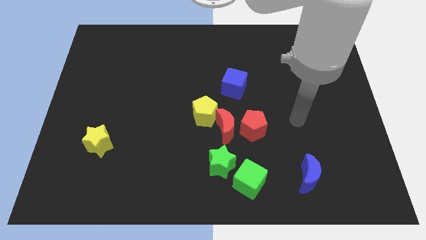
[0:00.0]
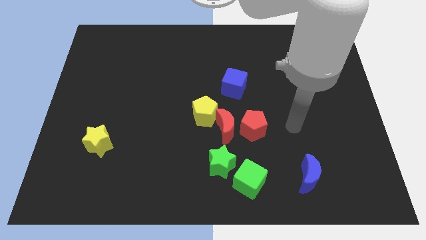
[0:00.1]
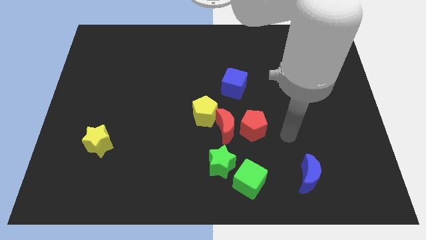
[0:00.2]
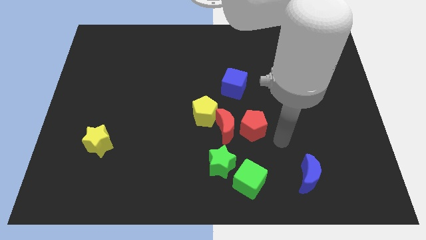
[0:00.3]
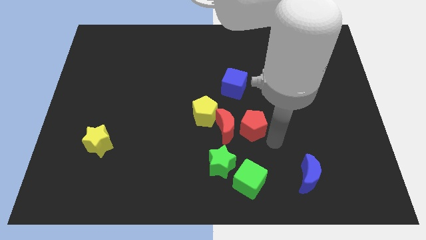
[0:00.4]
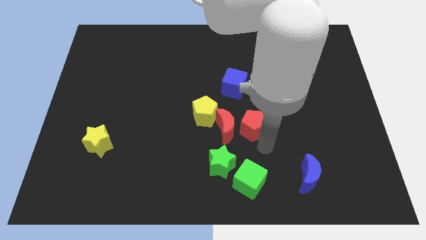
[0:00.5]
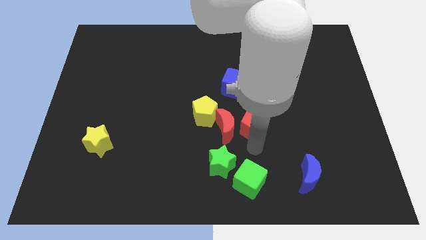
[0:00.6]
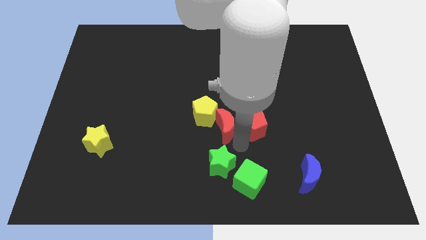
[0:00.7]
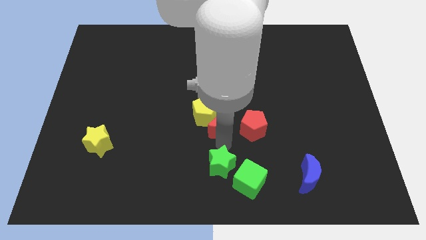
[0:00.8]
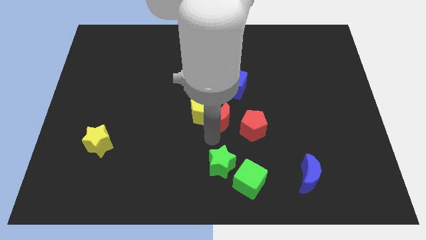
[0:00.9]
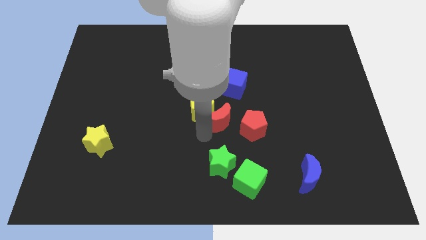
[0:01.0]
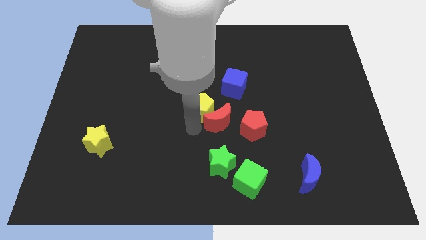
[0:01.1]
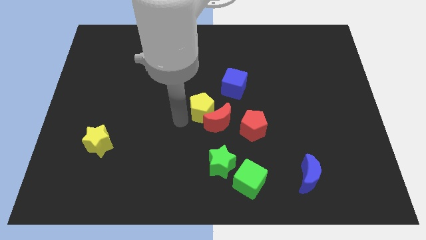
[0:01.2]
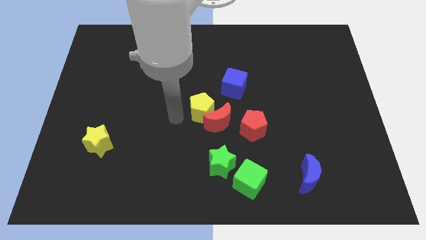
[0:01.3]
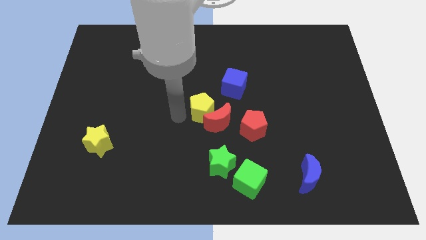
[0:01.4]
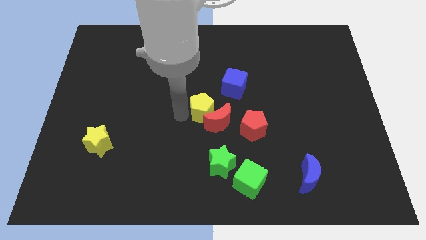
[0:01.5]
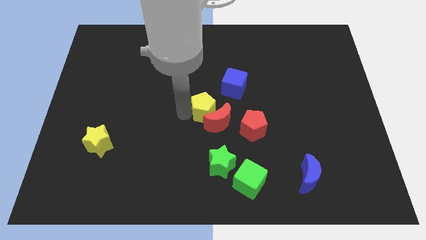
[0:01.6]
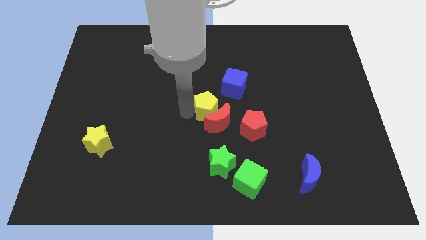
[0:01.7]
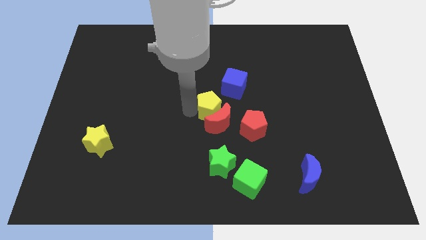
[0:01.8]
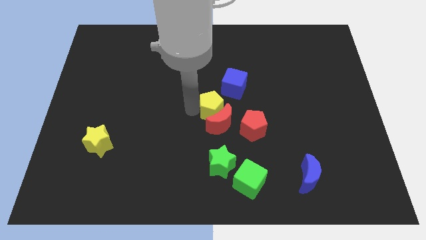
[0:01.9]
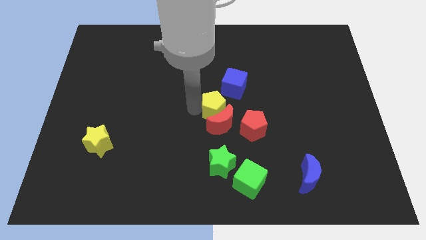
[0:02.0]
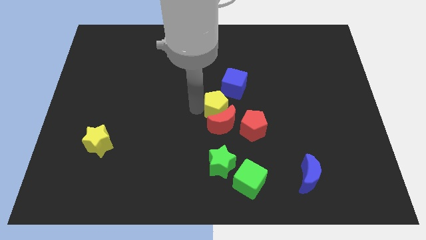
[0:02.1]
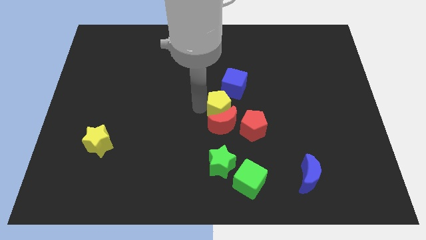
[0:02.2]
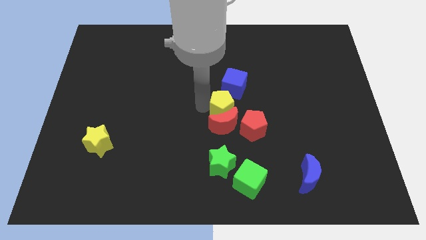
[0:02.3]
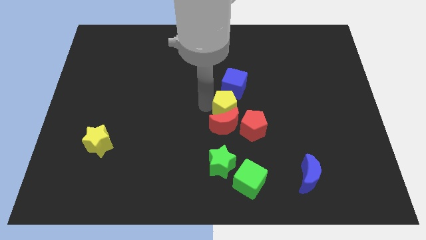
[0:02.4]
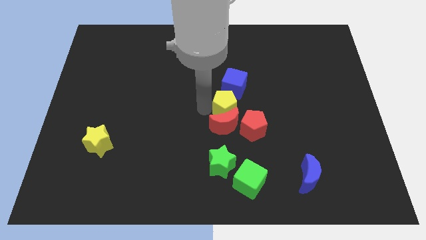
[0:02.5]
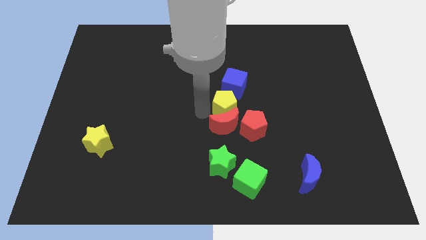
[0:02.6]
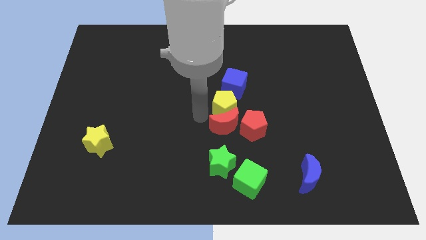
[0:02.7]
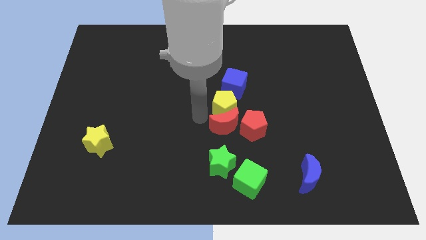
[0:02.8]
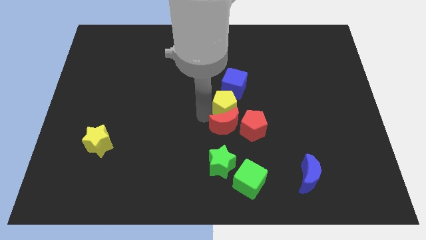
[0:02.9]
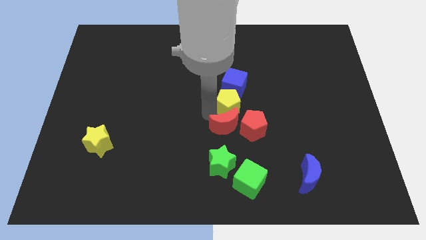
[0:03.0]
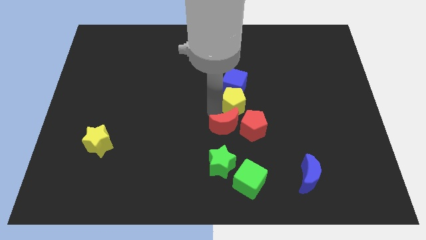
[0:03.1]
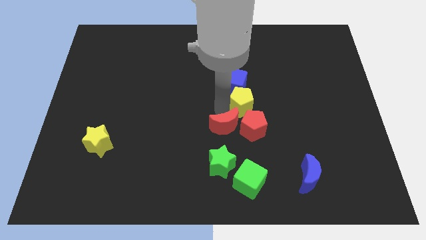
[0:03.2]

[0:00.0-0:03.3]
slide the yellow pentagon a little bit up and then to the right

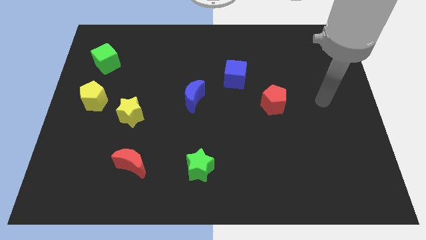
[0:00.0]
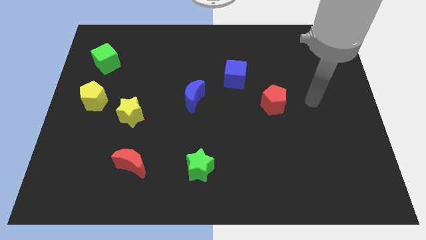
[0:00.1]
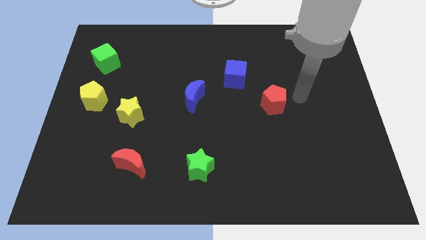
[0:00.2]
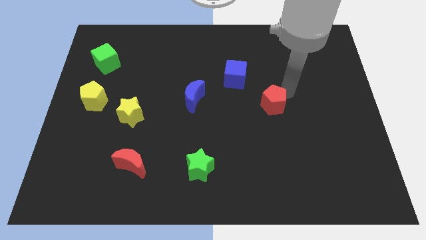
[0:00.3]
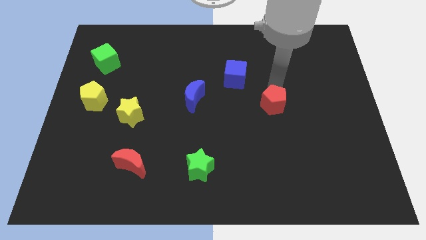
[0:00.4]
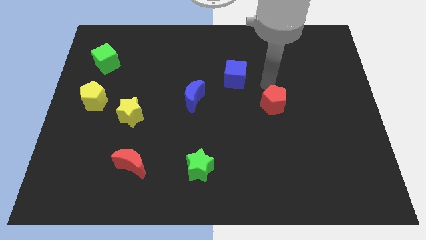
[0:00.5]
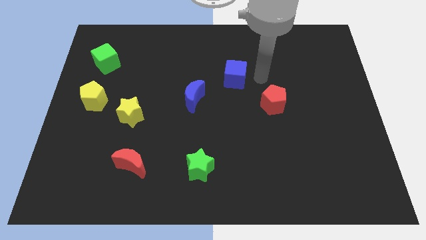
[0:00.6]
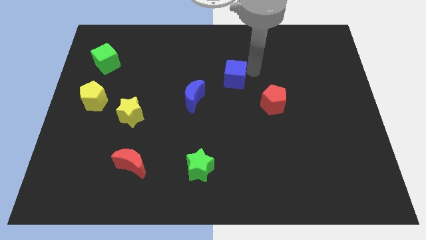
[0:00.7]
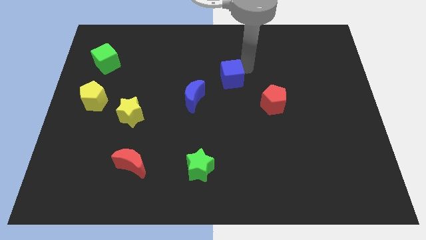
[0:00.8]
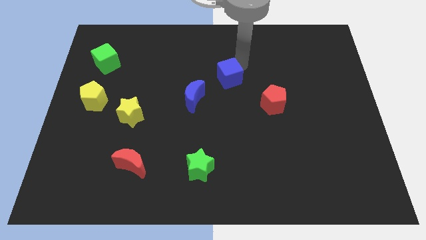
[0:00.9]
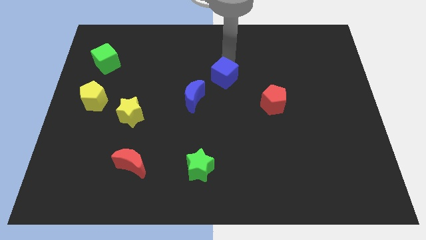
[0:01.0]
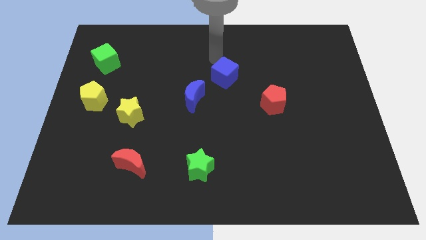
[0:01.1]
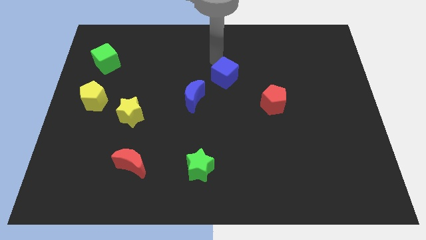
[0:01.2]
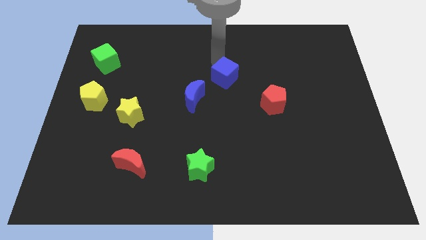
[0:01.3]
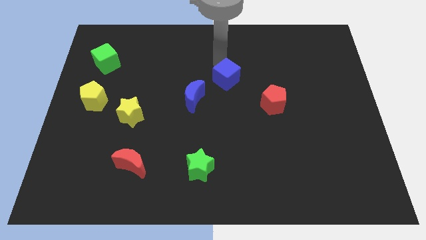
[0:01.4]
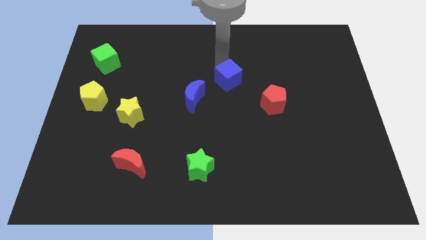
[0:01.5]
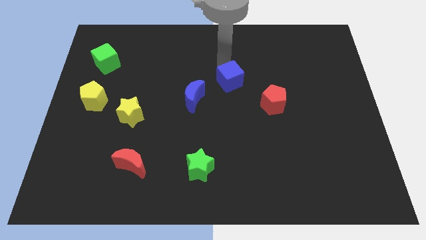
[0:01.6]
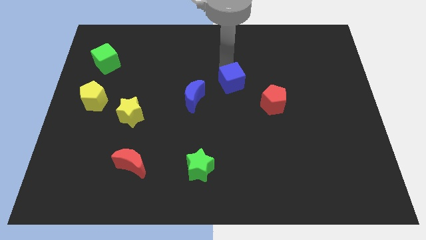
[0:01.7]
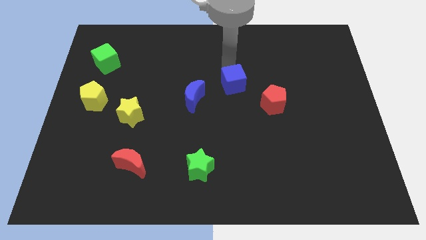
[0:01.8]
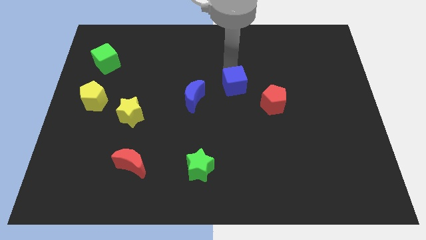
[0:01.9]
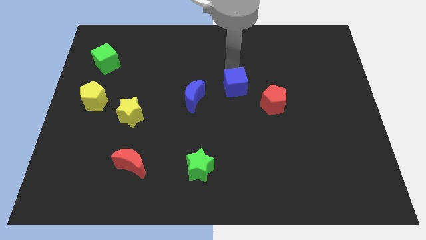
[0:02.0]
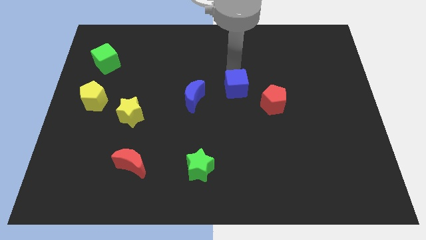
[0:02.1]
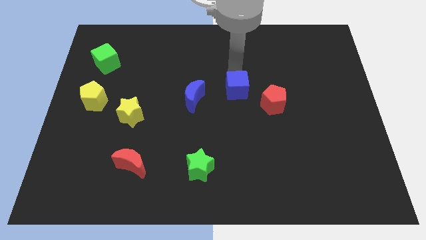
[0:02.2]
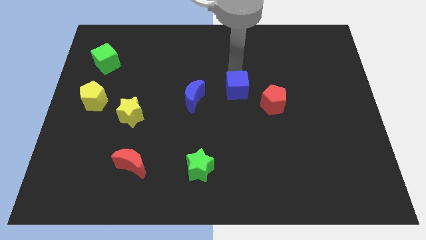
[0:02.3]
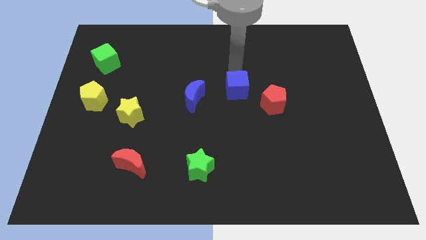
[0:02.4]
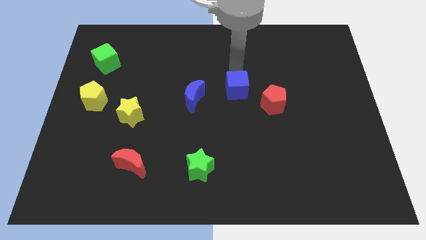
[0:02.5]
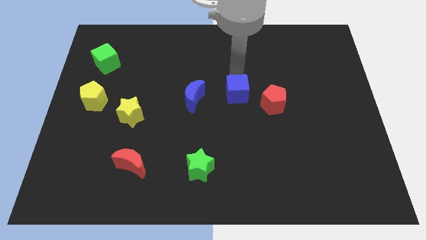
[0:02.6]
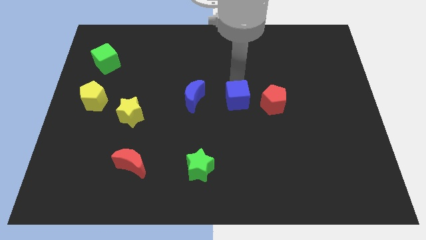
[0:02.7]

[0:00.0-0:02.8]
move the blue cube a bit downwards

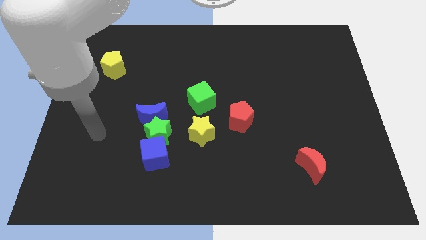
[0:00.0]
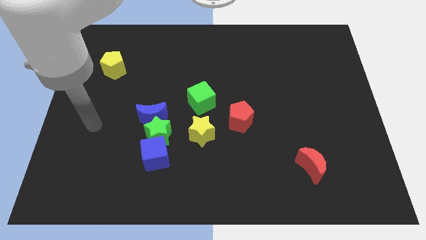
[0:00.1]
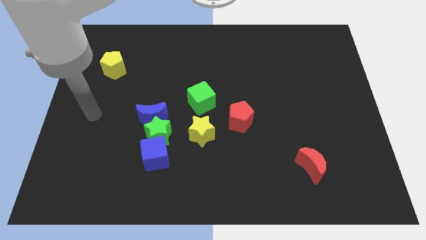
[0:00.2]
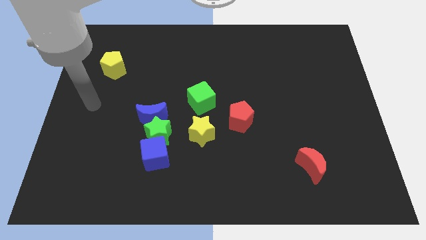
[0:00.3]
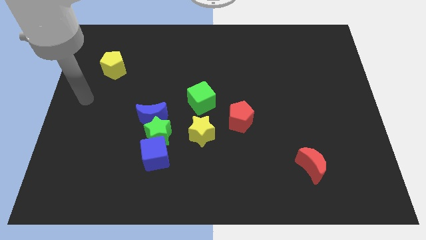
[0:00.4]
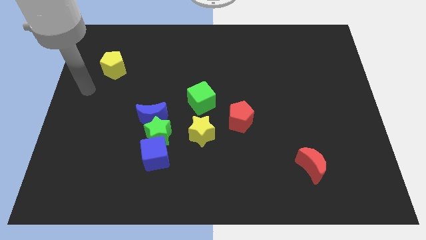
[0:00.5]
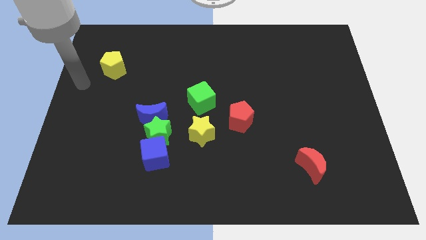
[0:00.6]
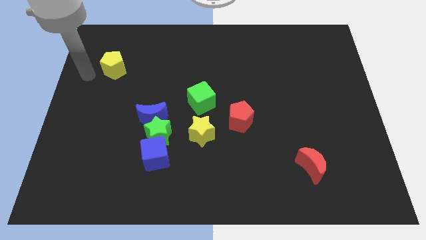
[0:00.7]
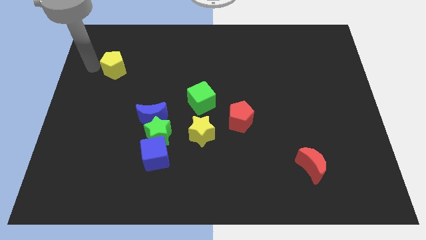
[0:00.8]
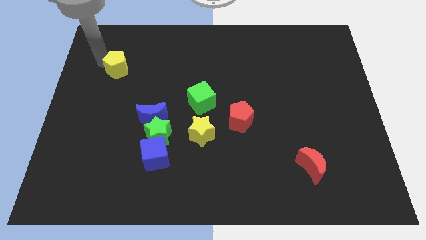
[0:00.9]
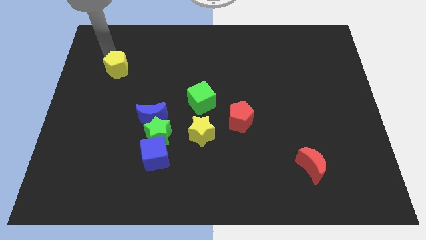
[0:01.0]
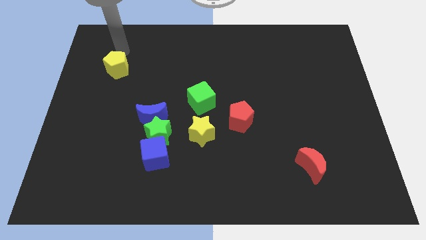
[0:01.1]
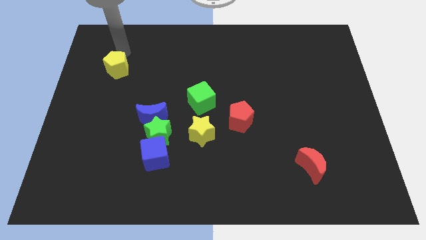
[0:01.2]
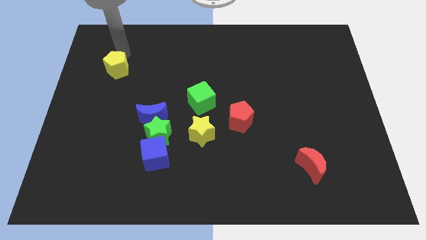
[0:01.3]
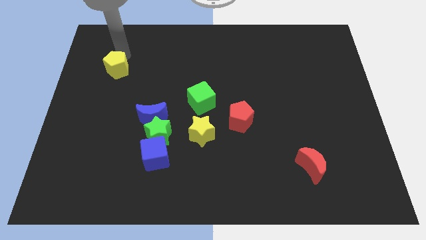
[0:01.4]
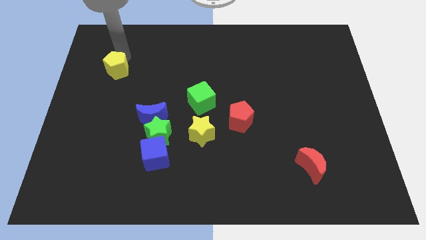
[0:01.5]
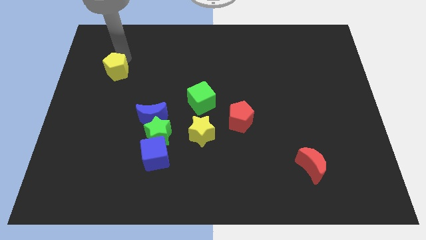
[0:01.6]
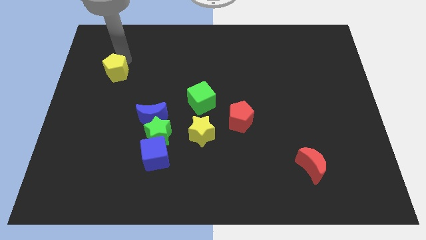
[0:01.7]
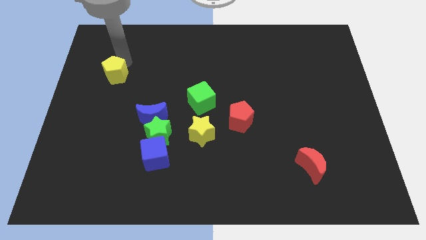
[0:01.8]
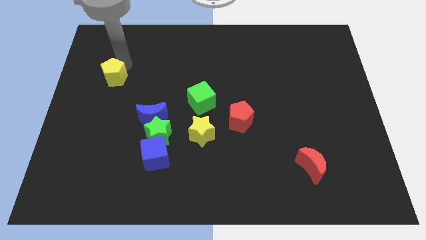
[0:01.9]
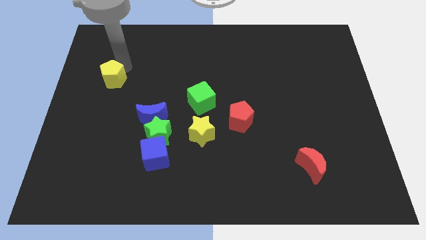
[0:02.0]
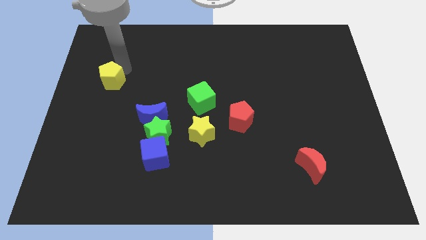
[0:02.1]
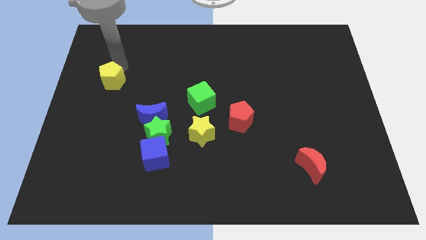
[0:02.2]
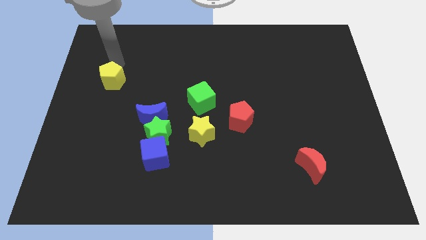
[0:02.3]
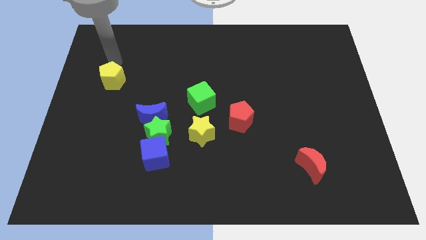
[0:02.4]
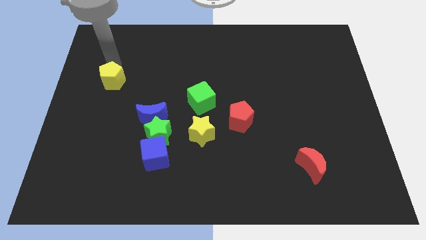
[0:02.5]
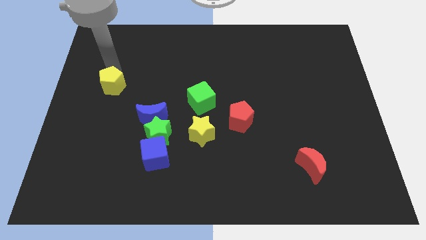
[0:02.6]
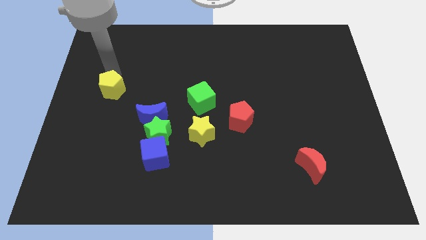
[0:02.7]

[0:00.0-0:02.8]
slightly push the yellow pentagon downwards
